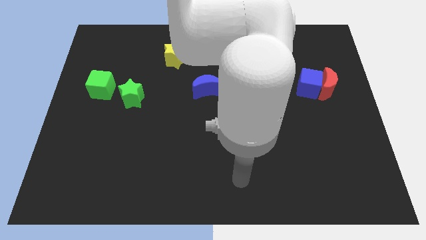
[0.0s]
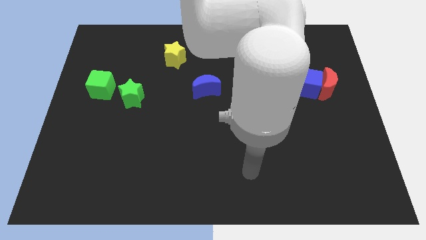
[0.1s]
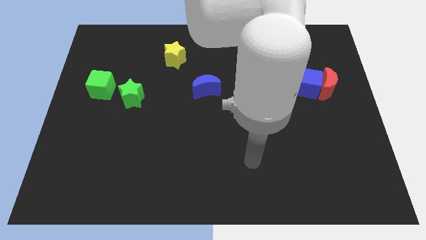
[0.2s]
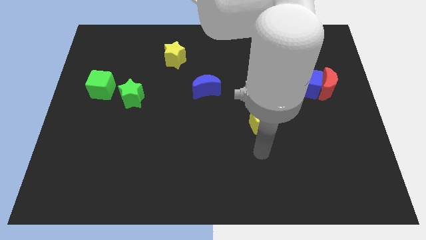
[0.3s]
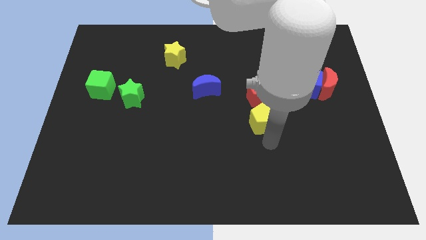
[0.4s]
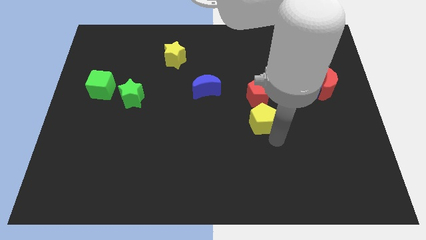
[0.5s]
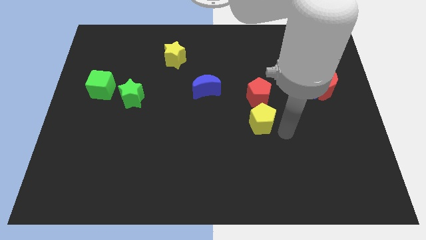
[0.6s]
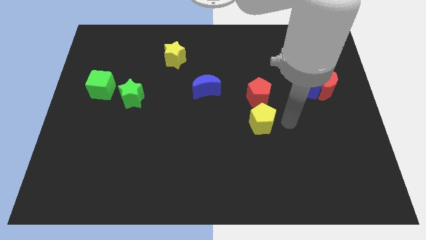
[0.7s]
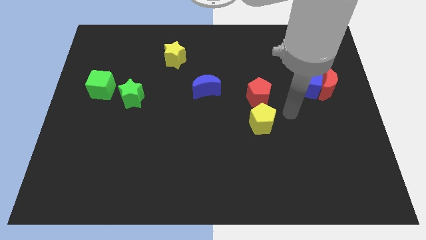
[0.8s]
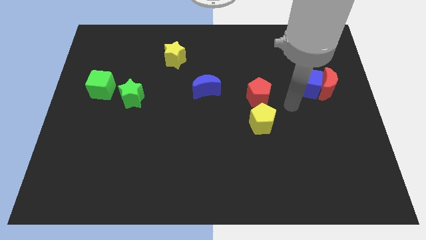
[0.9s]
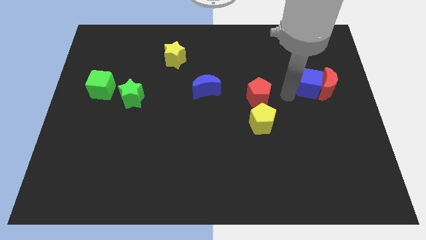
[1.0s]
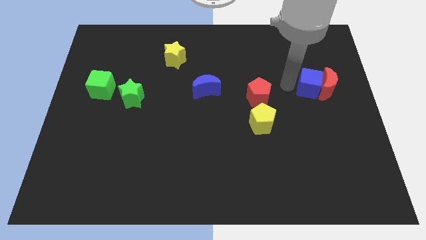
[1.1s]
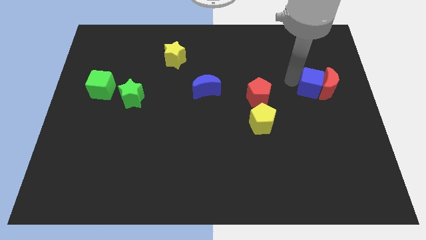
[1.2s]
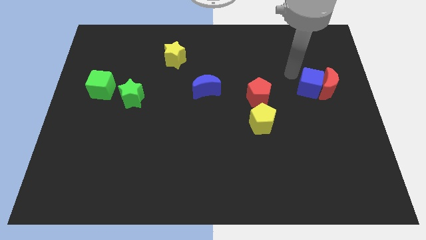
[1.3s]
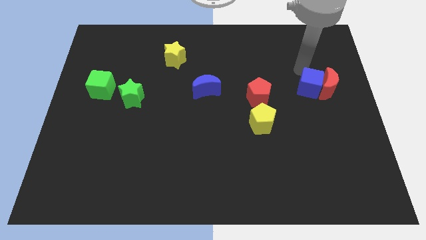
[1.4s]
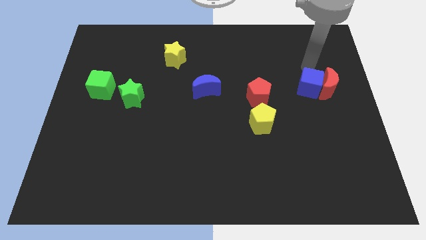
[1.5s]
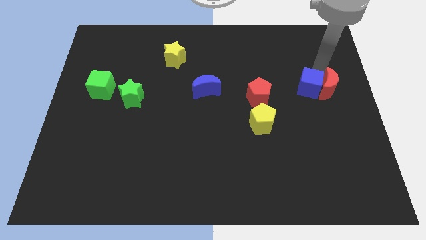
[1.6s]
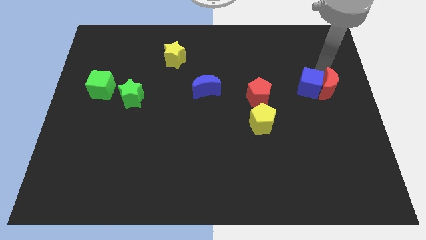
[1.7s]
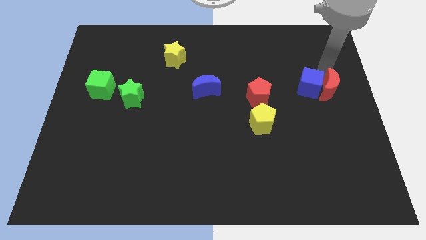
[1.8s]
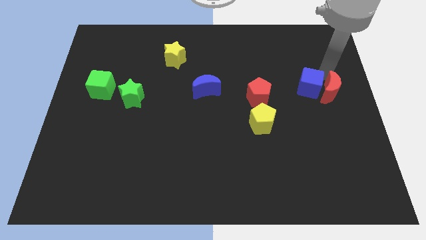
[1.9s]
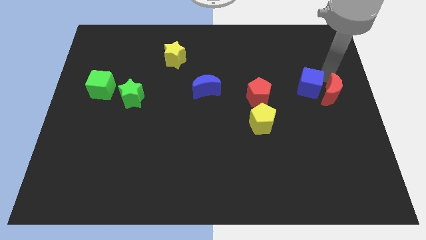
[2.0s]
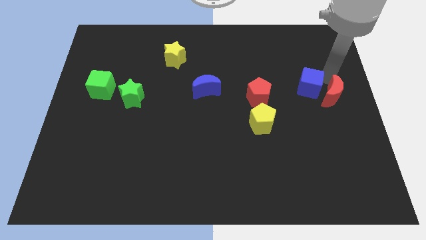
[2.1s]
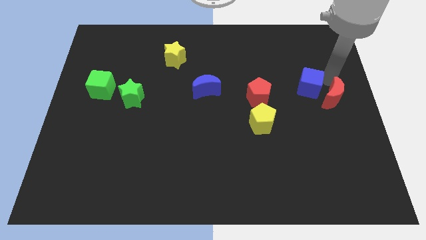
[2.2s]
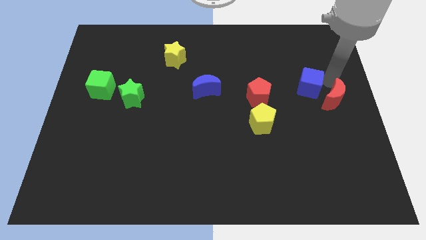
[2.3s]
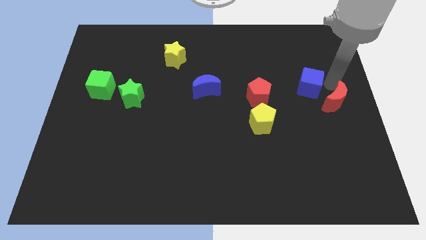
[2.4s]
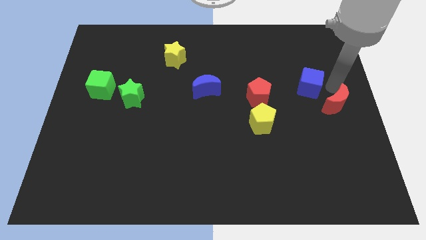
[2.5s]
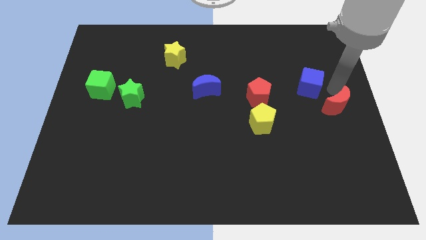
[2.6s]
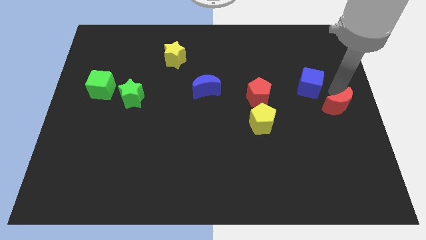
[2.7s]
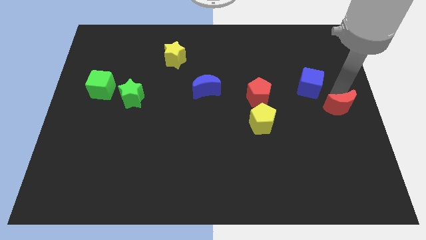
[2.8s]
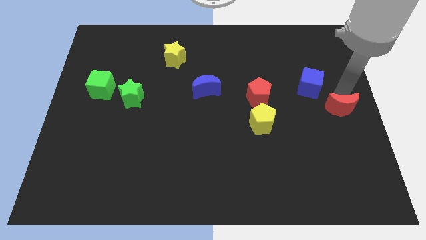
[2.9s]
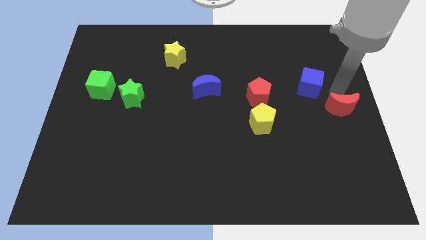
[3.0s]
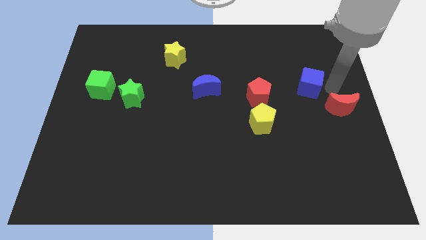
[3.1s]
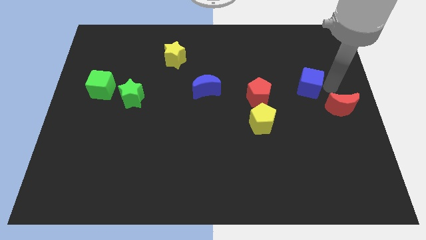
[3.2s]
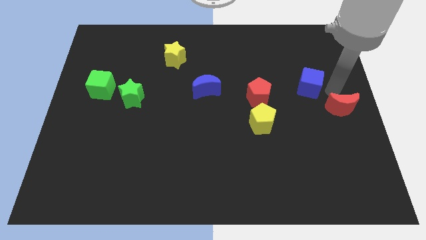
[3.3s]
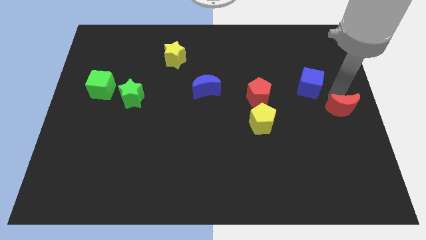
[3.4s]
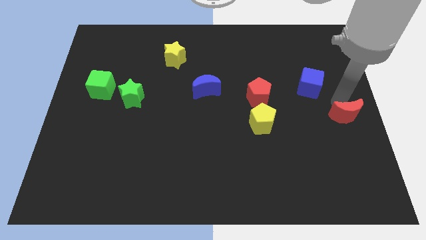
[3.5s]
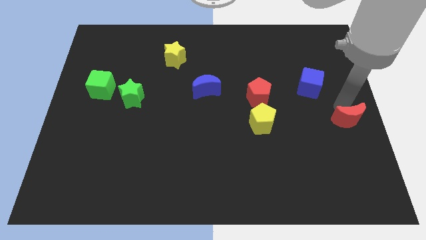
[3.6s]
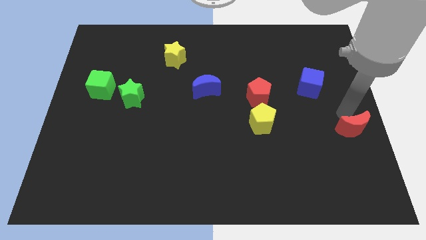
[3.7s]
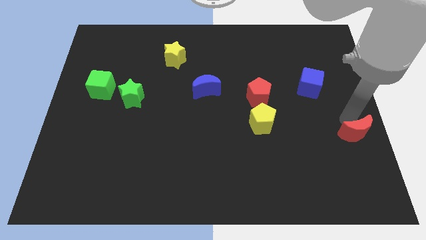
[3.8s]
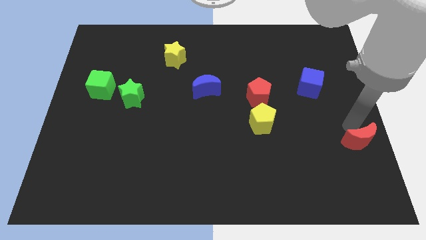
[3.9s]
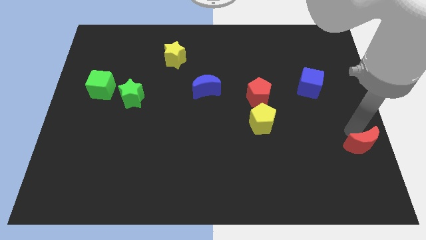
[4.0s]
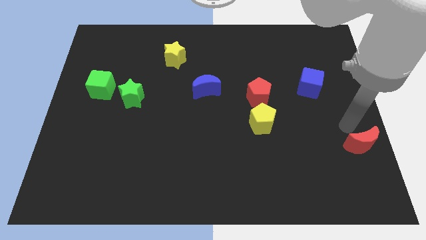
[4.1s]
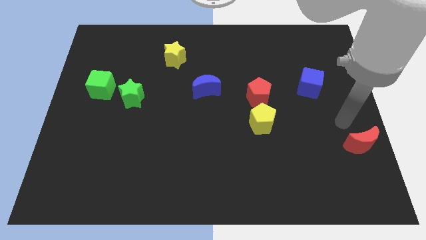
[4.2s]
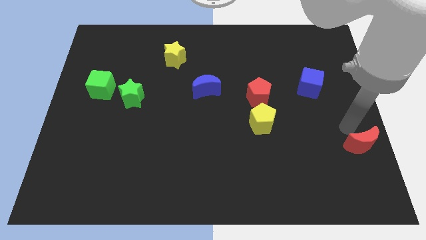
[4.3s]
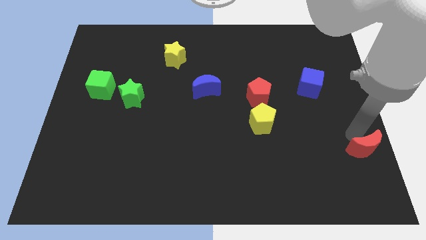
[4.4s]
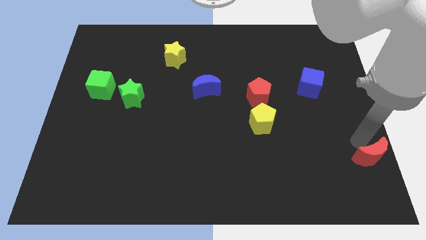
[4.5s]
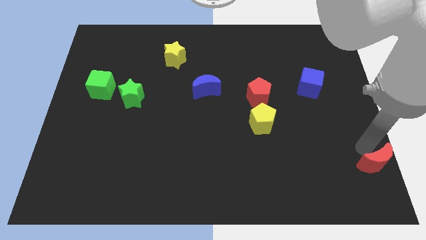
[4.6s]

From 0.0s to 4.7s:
put the red moon to the bottom right

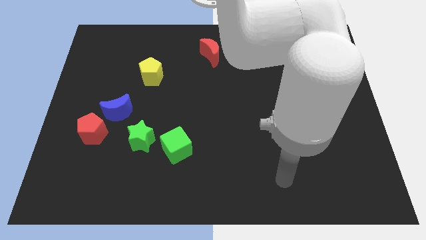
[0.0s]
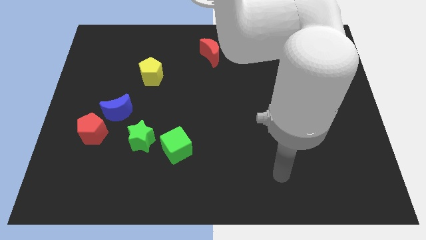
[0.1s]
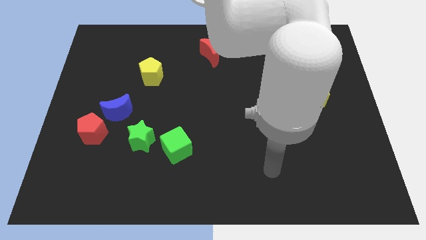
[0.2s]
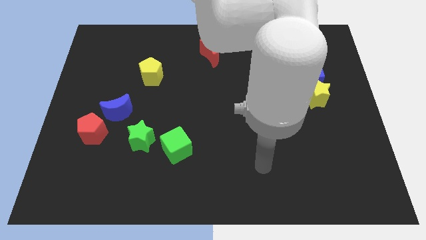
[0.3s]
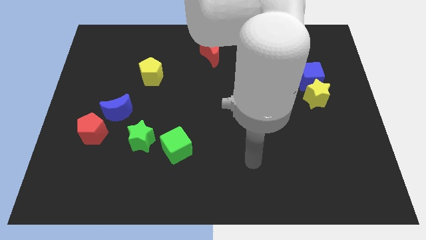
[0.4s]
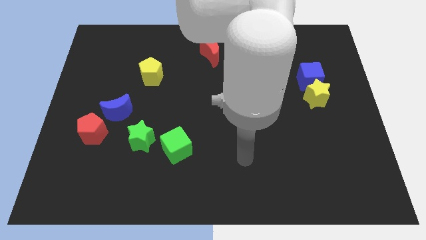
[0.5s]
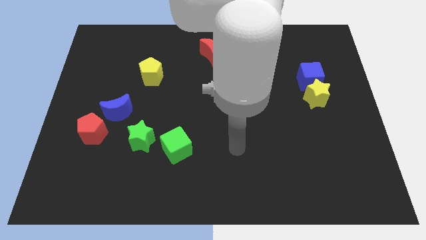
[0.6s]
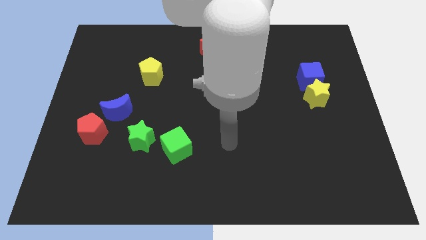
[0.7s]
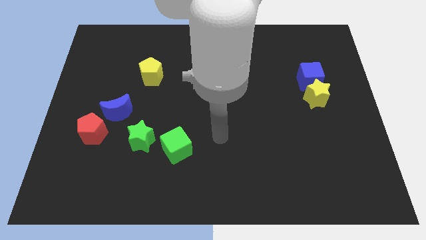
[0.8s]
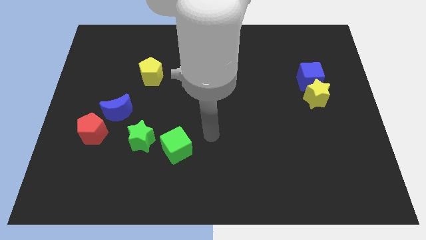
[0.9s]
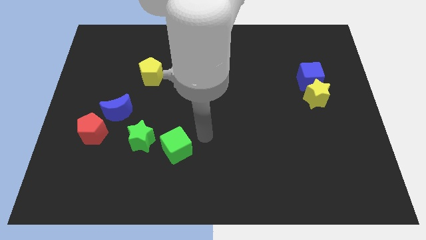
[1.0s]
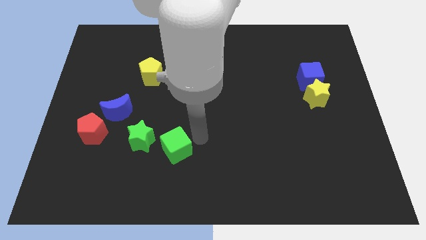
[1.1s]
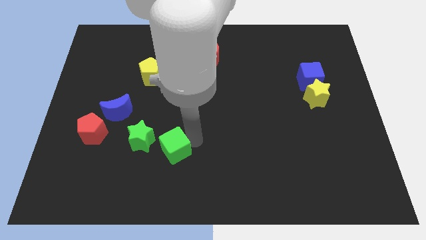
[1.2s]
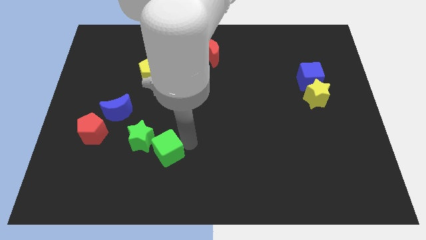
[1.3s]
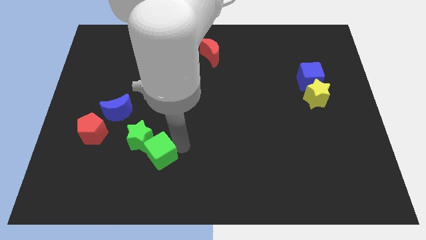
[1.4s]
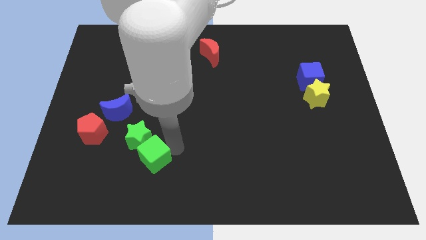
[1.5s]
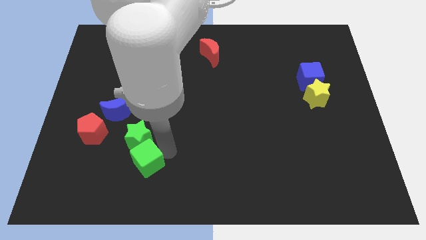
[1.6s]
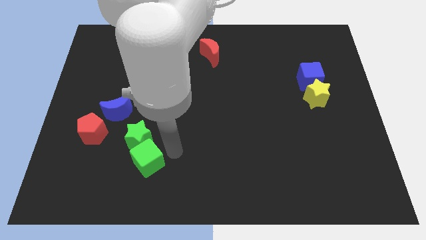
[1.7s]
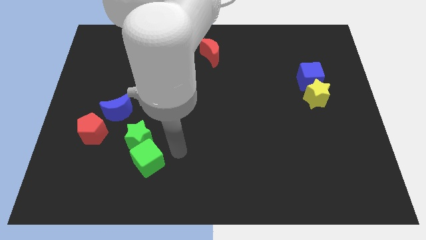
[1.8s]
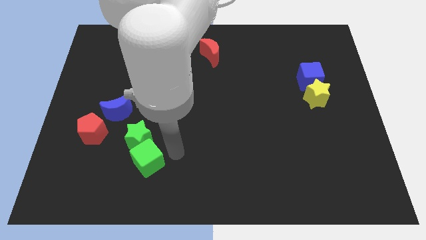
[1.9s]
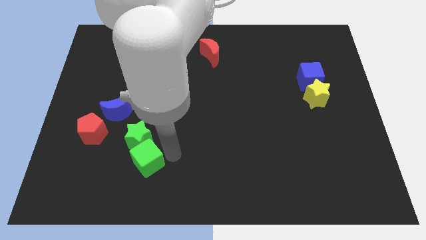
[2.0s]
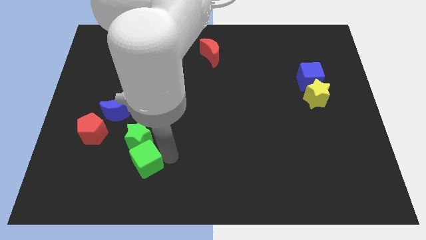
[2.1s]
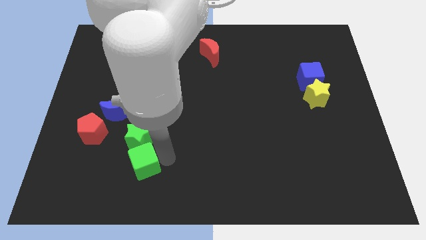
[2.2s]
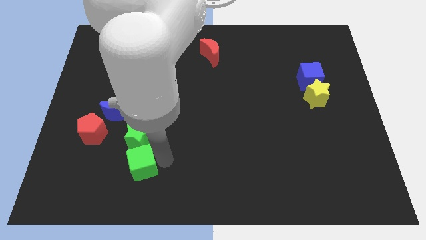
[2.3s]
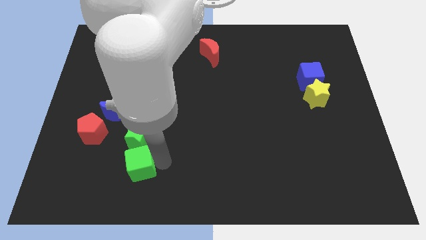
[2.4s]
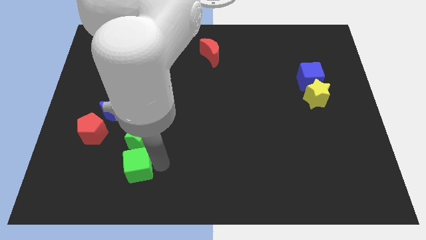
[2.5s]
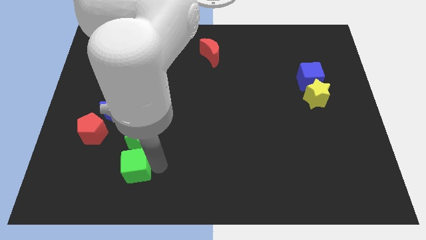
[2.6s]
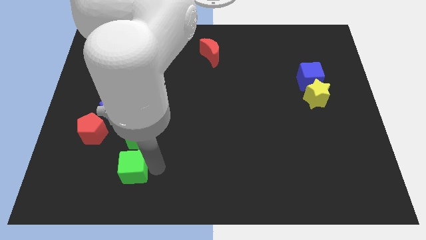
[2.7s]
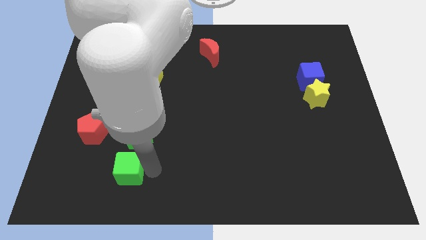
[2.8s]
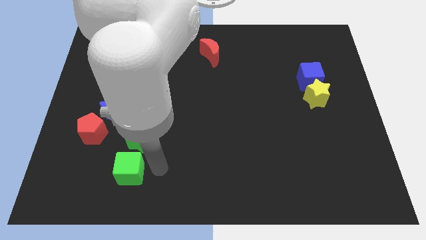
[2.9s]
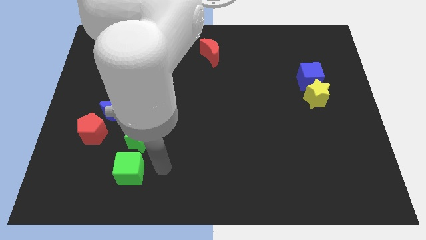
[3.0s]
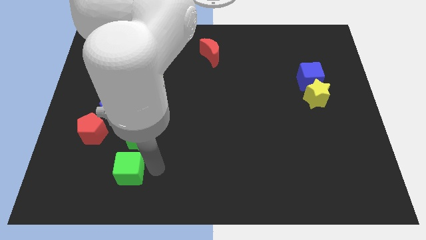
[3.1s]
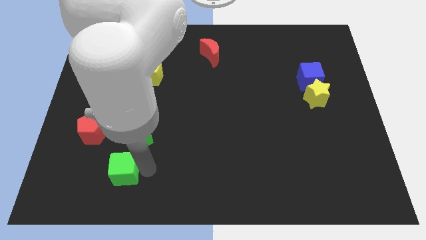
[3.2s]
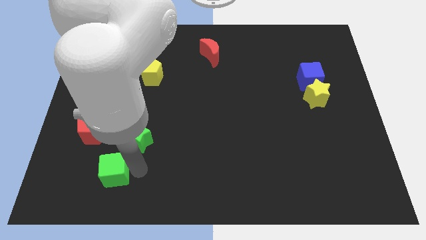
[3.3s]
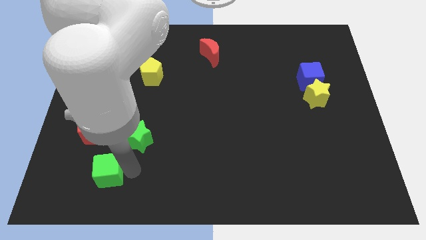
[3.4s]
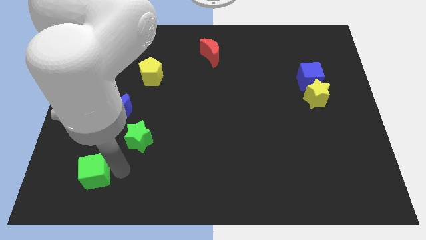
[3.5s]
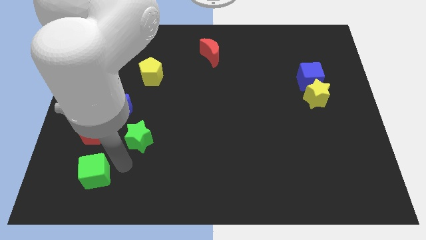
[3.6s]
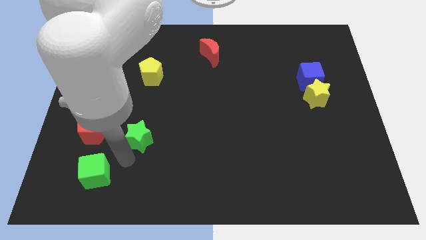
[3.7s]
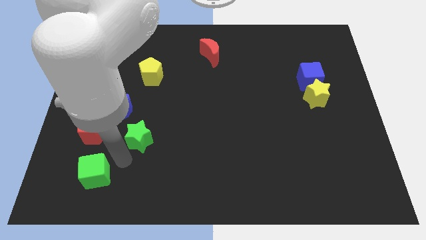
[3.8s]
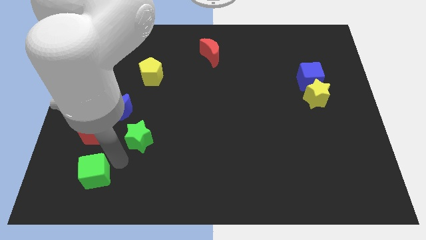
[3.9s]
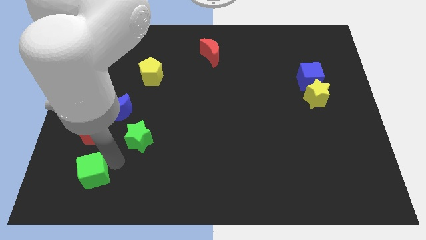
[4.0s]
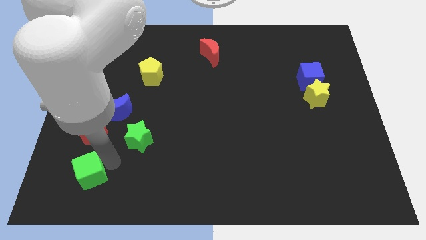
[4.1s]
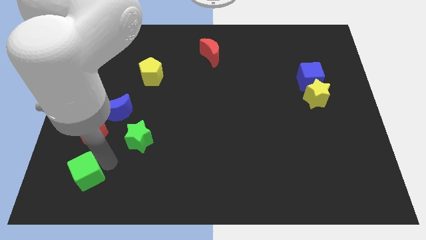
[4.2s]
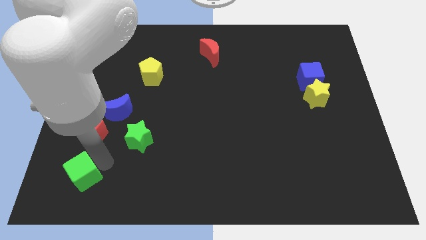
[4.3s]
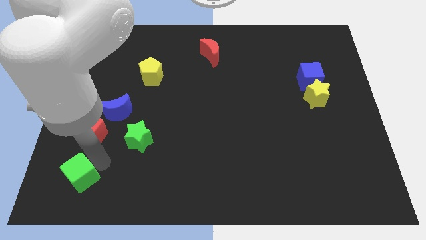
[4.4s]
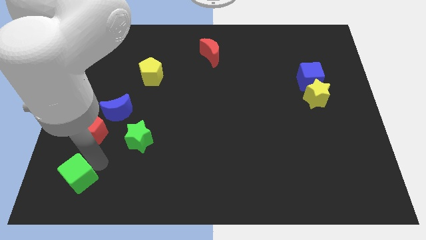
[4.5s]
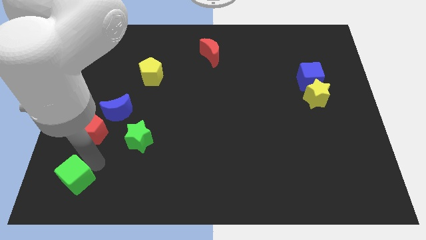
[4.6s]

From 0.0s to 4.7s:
push the green cube to the bottom left corner
